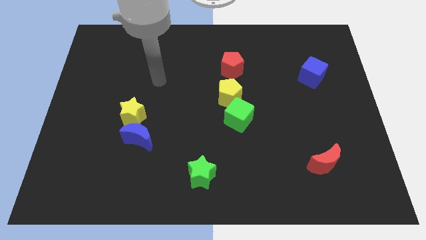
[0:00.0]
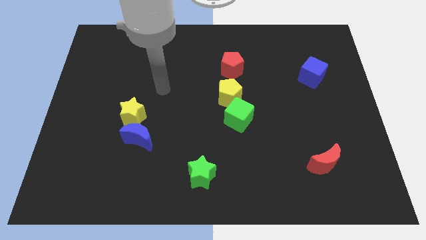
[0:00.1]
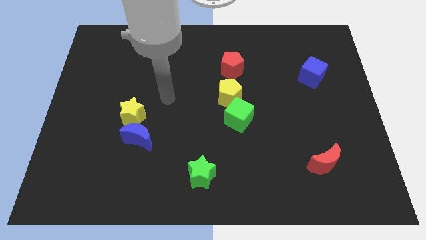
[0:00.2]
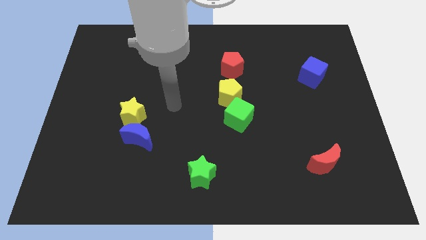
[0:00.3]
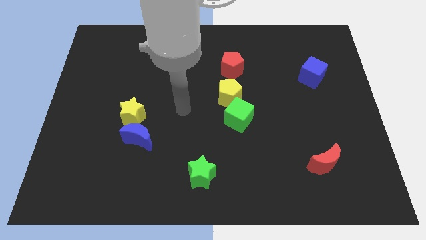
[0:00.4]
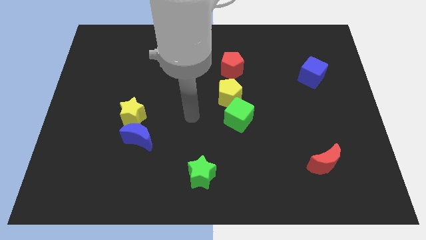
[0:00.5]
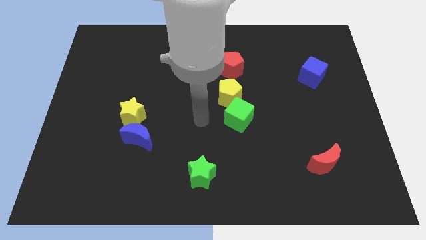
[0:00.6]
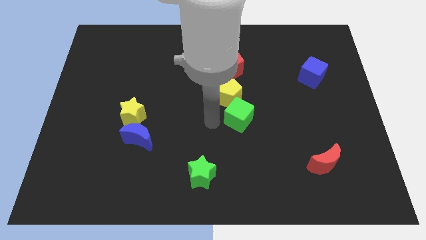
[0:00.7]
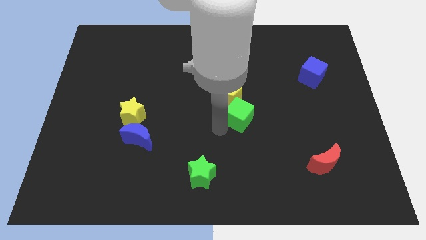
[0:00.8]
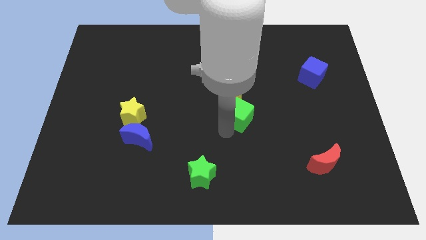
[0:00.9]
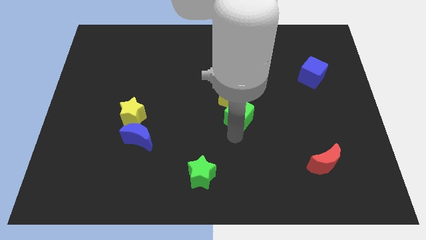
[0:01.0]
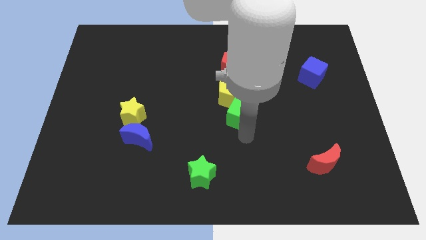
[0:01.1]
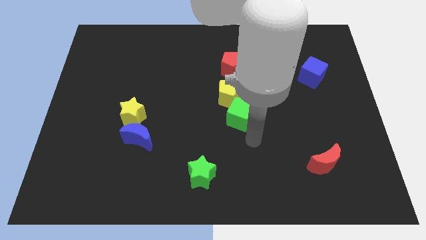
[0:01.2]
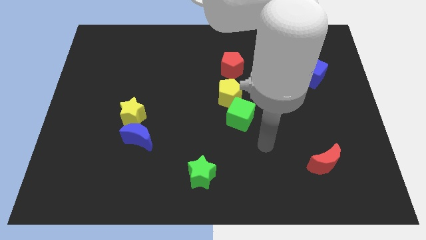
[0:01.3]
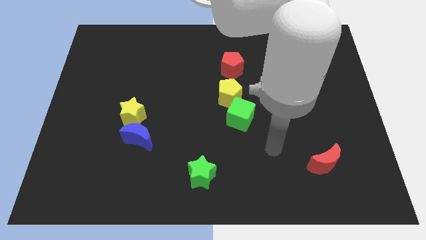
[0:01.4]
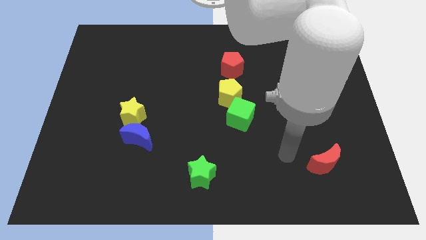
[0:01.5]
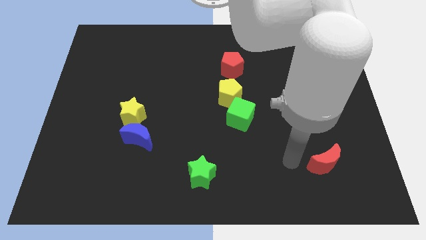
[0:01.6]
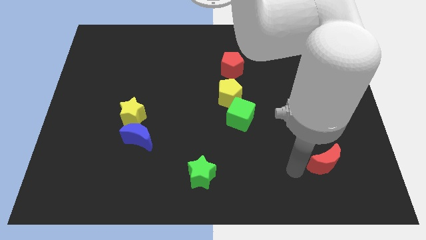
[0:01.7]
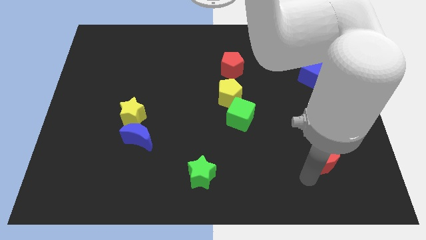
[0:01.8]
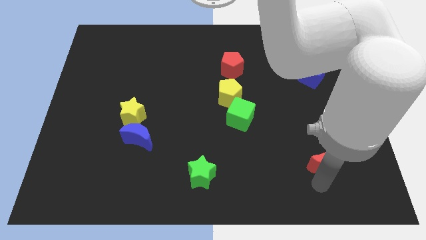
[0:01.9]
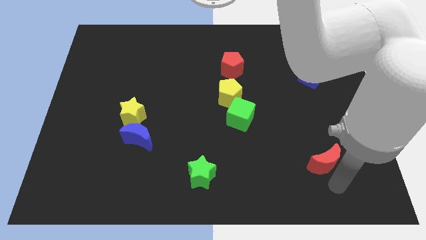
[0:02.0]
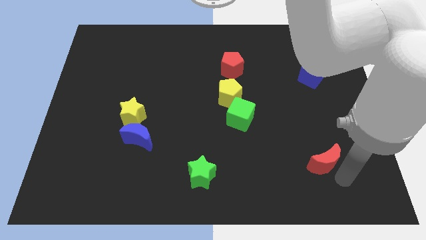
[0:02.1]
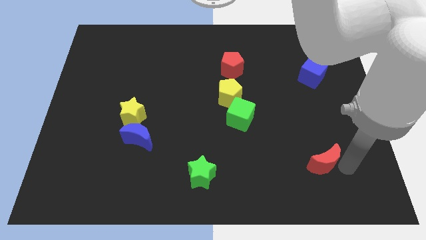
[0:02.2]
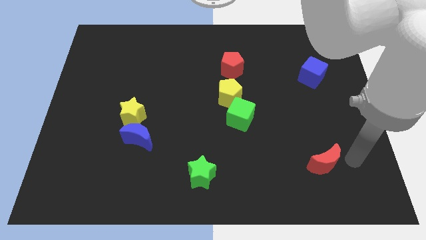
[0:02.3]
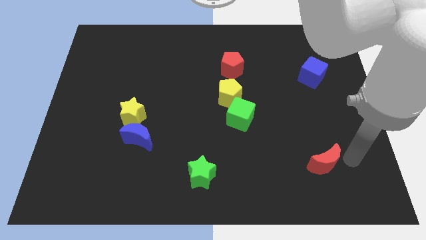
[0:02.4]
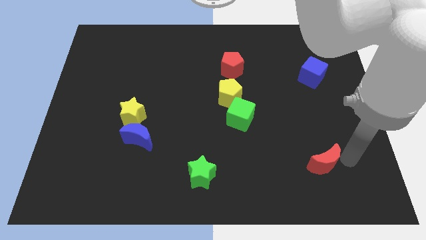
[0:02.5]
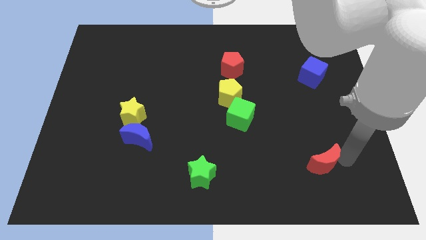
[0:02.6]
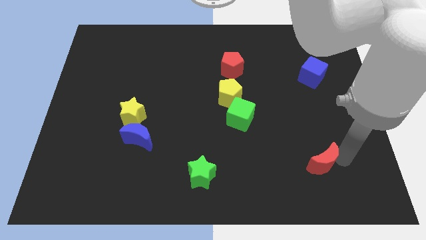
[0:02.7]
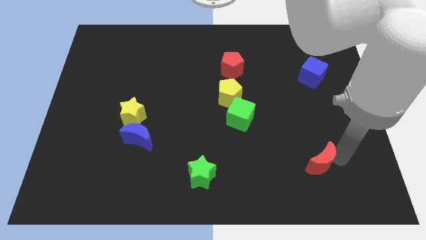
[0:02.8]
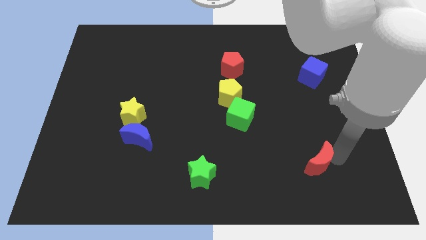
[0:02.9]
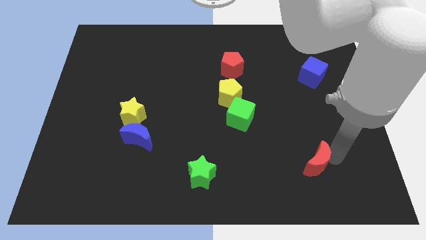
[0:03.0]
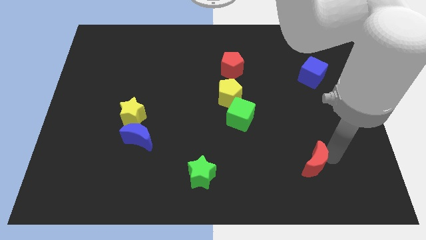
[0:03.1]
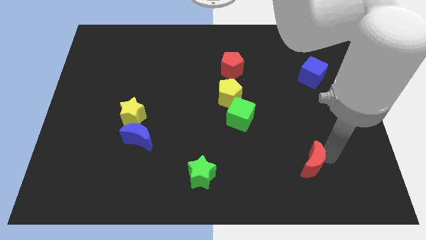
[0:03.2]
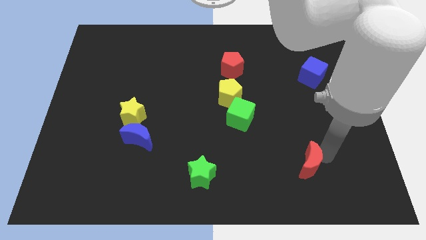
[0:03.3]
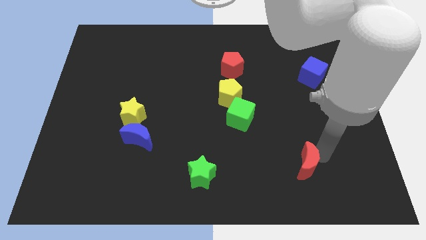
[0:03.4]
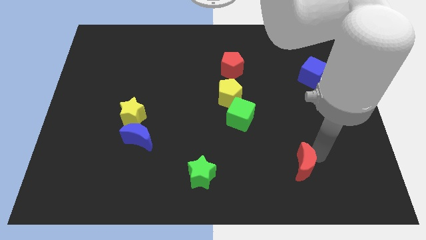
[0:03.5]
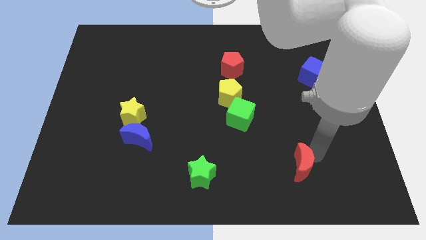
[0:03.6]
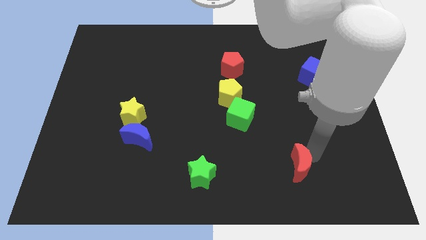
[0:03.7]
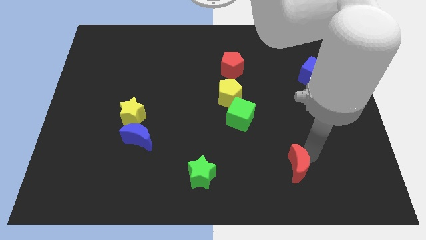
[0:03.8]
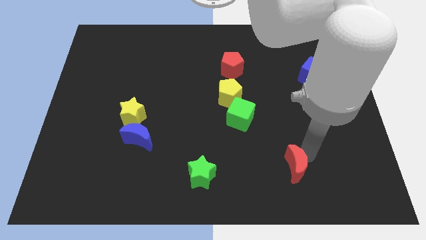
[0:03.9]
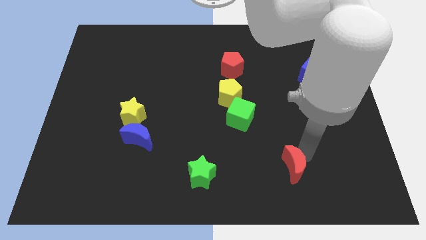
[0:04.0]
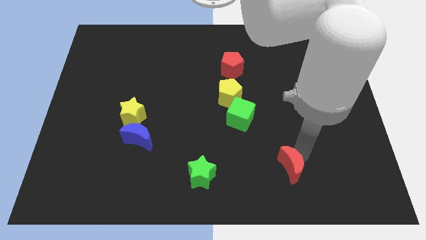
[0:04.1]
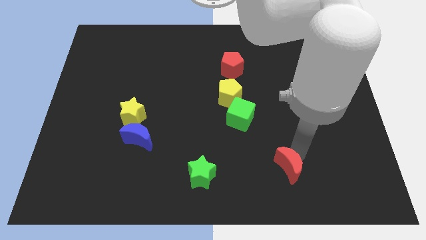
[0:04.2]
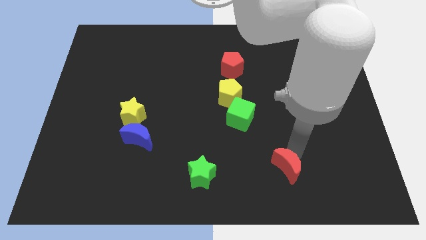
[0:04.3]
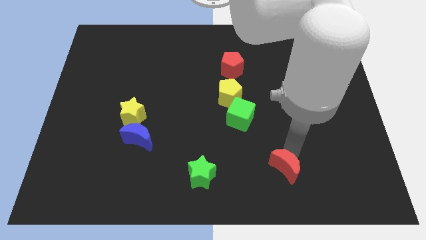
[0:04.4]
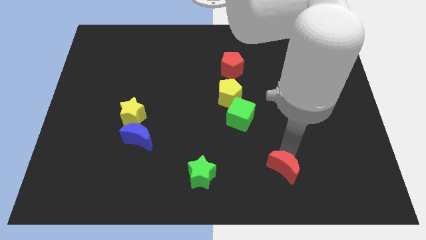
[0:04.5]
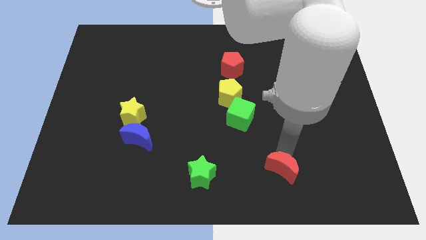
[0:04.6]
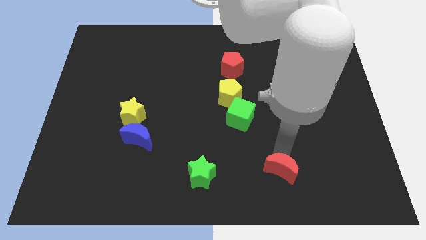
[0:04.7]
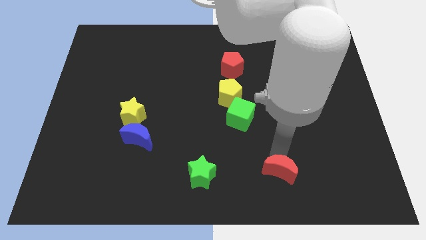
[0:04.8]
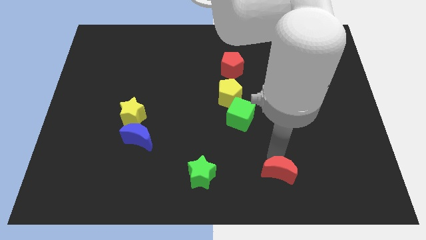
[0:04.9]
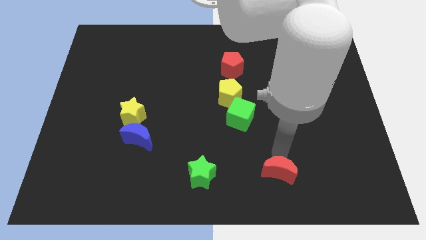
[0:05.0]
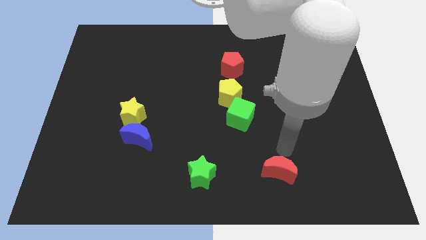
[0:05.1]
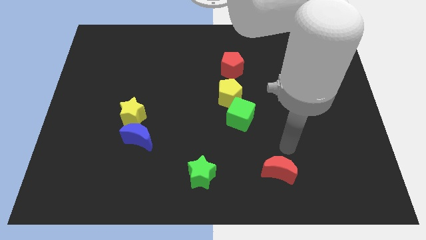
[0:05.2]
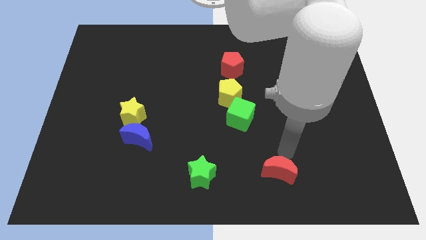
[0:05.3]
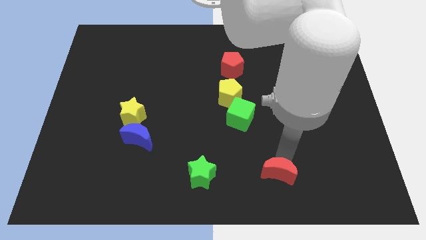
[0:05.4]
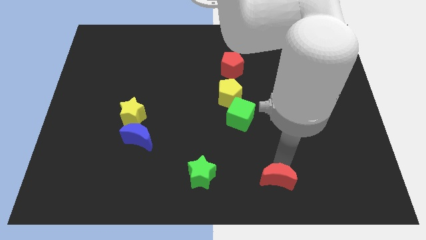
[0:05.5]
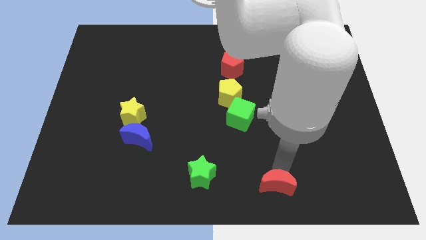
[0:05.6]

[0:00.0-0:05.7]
put the red moon to the bottom

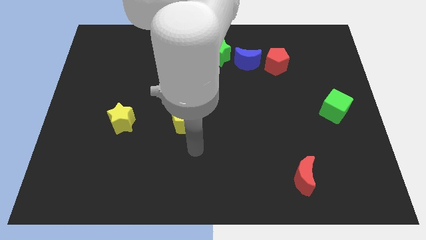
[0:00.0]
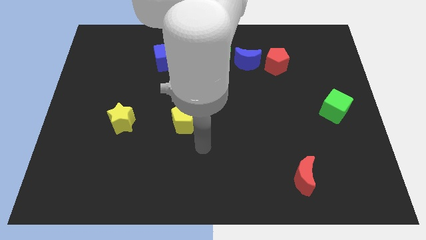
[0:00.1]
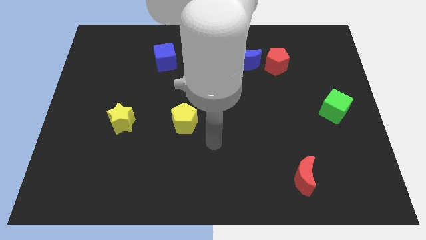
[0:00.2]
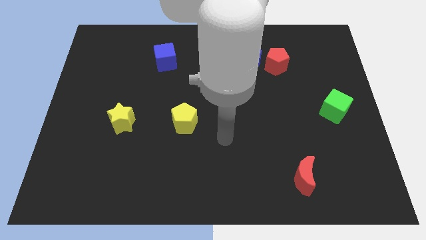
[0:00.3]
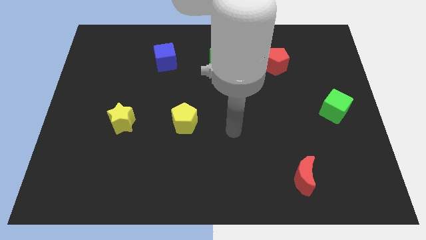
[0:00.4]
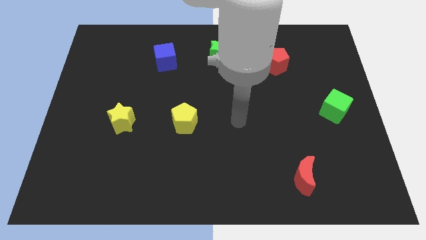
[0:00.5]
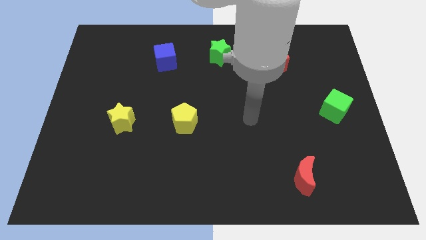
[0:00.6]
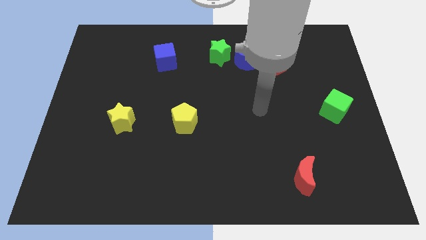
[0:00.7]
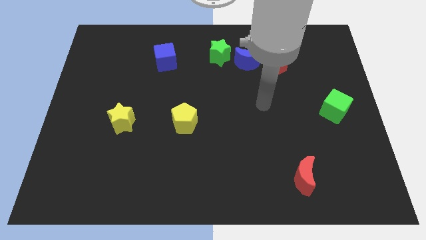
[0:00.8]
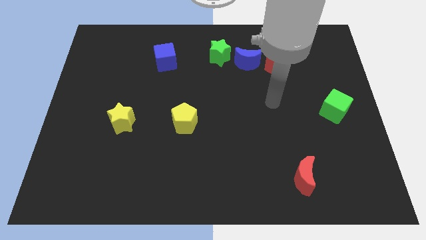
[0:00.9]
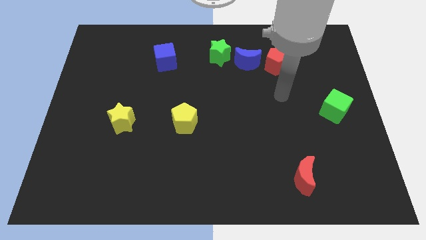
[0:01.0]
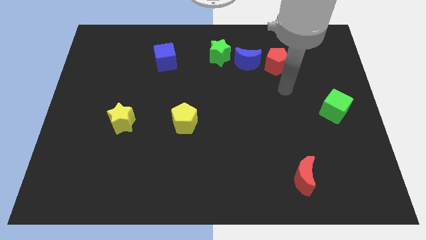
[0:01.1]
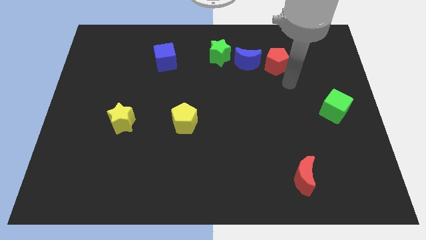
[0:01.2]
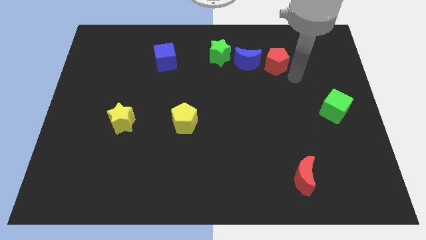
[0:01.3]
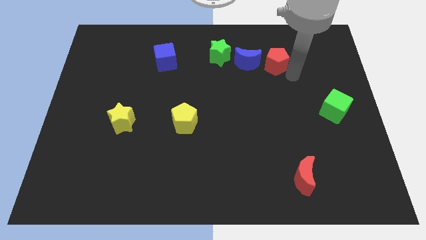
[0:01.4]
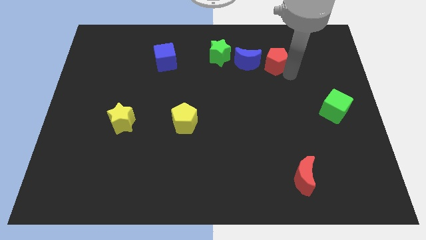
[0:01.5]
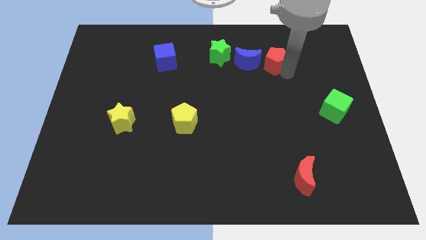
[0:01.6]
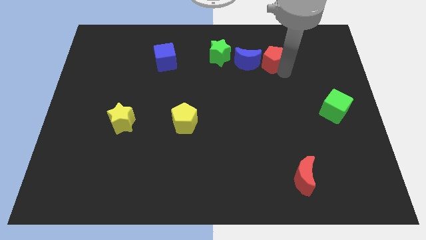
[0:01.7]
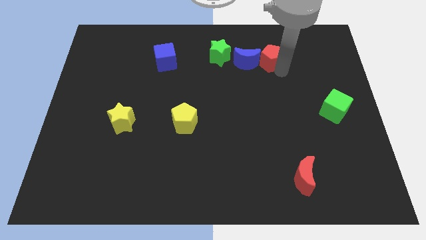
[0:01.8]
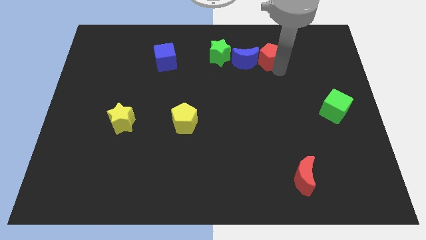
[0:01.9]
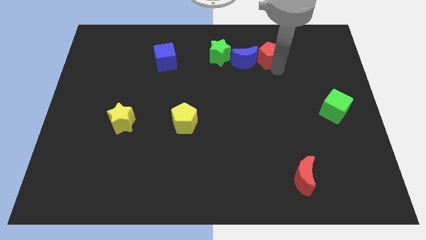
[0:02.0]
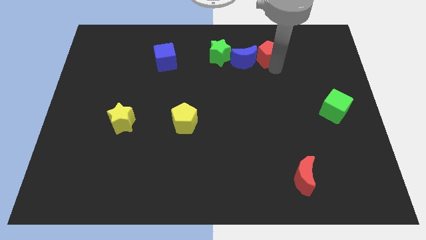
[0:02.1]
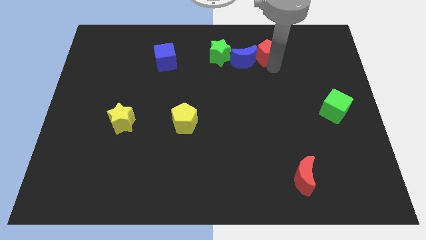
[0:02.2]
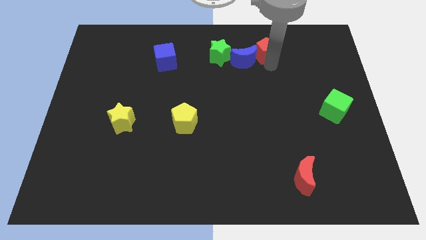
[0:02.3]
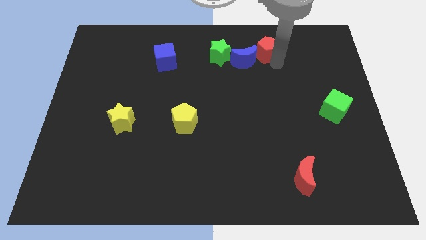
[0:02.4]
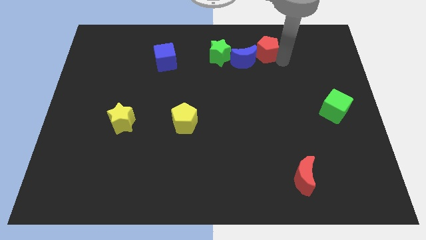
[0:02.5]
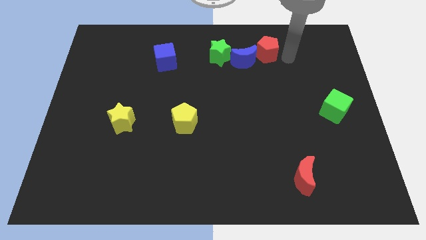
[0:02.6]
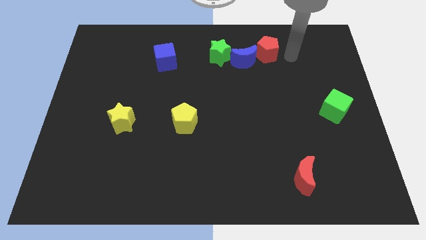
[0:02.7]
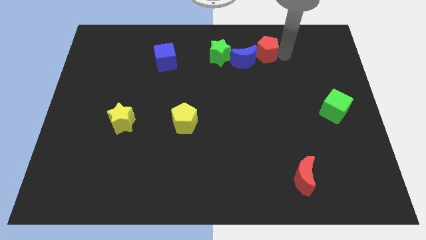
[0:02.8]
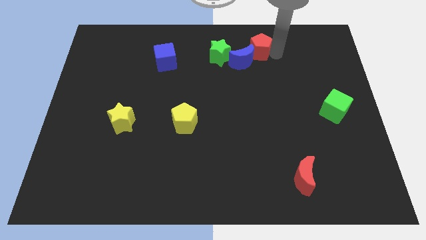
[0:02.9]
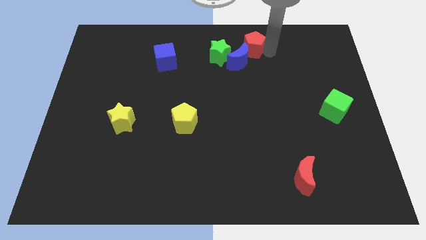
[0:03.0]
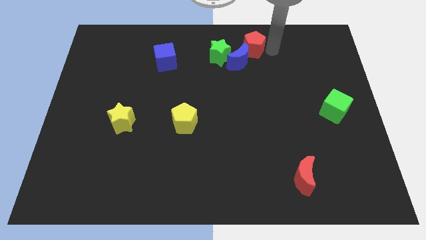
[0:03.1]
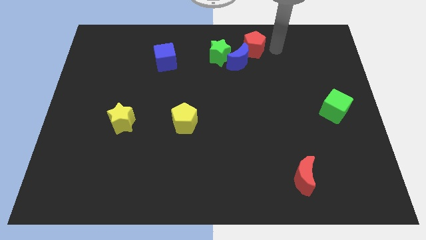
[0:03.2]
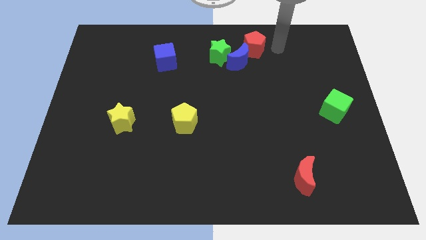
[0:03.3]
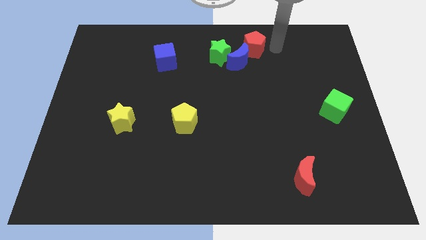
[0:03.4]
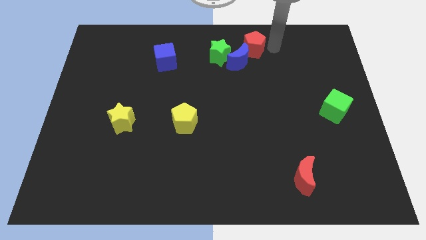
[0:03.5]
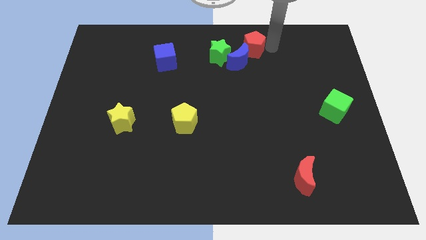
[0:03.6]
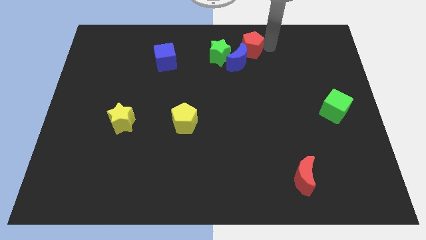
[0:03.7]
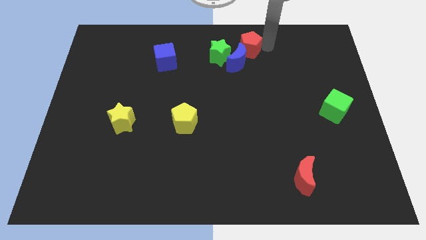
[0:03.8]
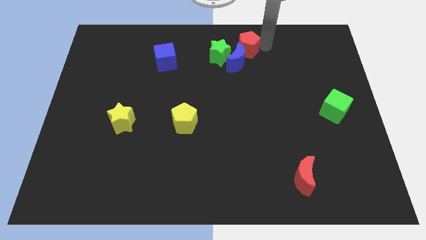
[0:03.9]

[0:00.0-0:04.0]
move the red pentagon to the towards your base
